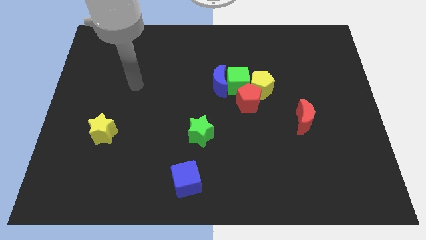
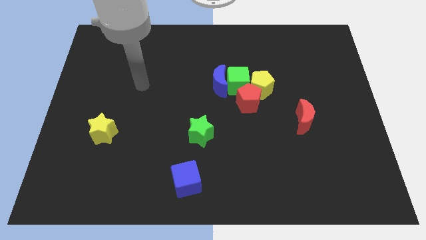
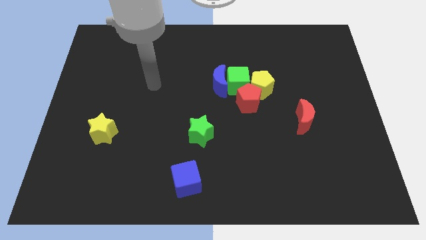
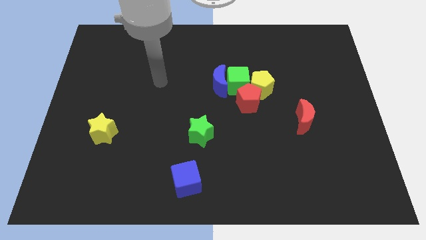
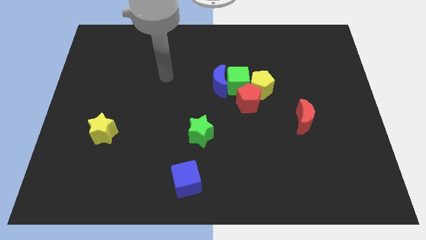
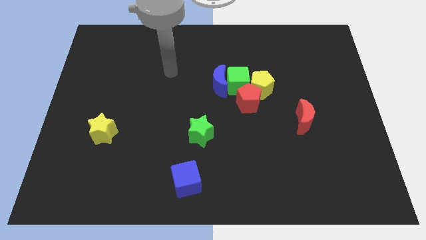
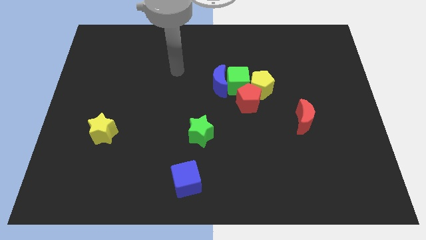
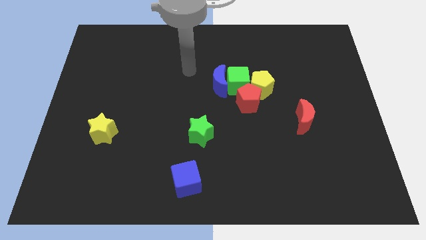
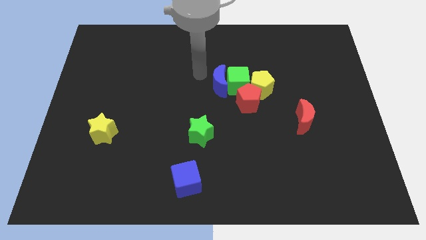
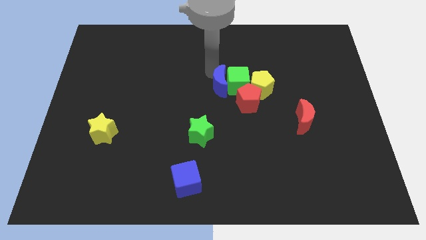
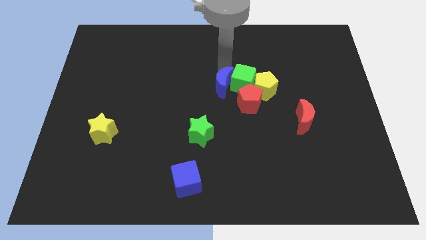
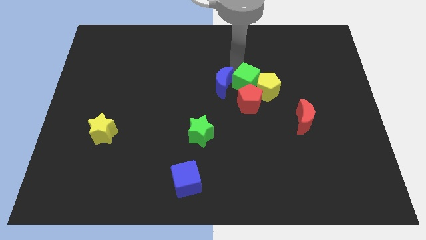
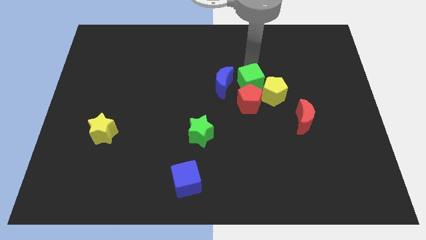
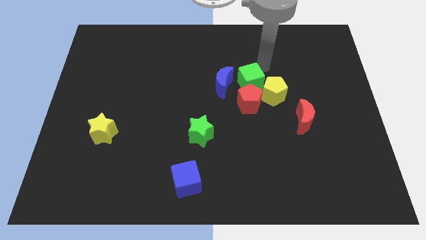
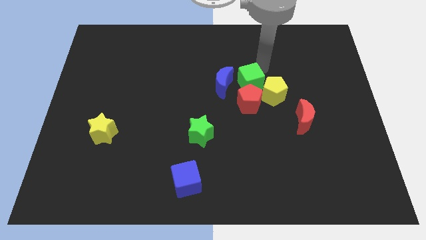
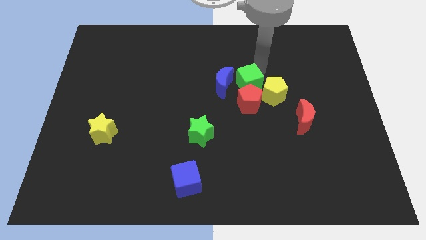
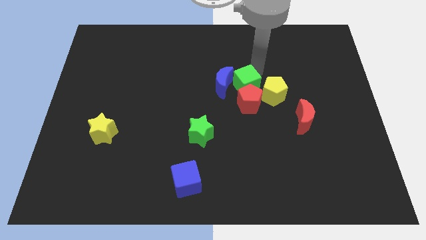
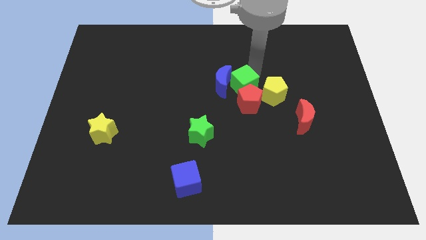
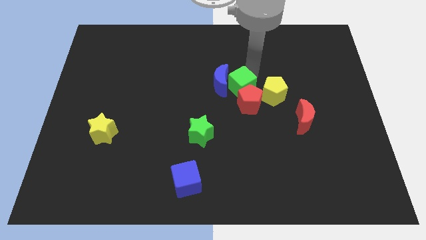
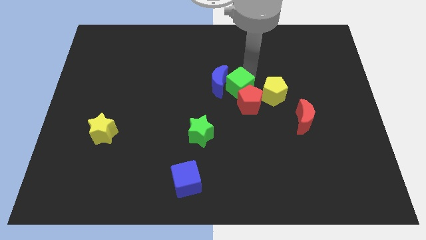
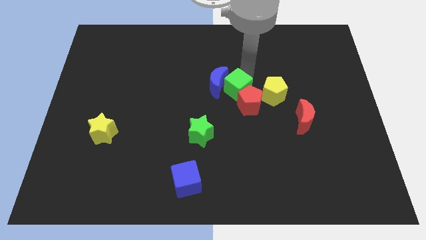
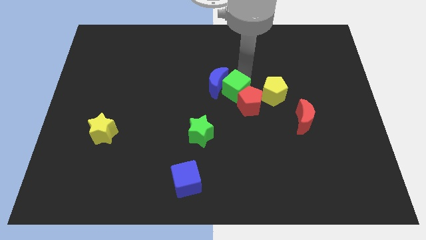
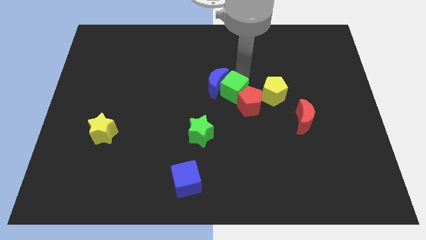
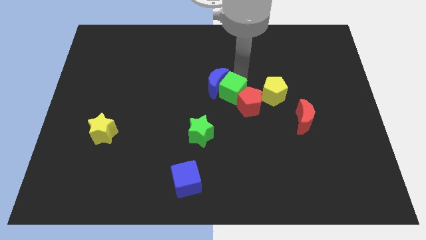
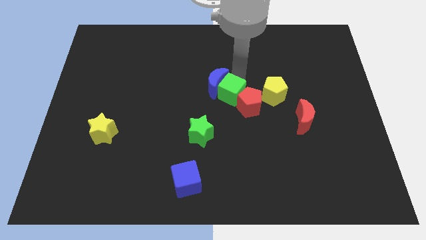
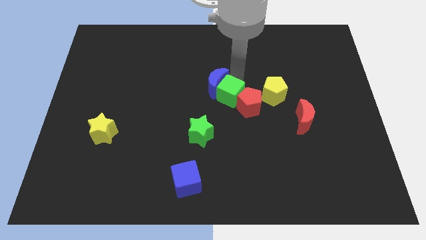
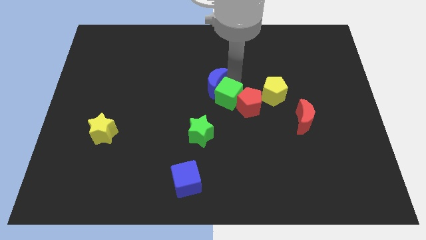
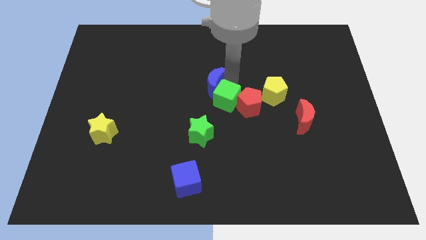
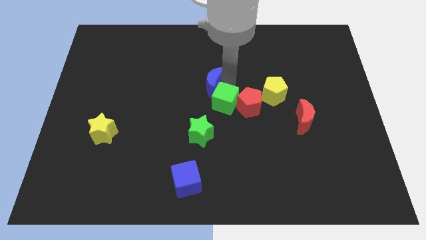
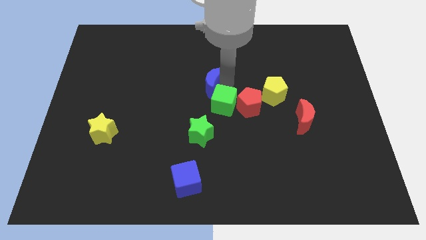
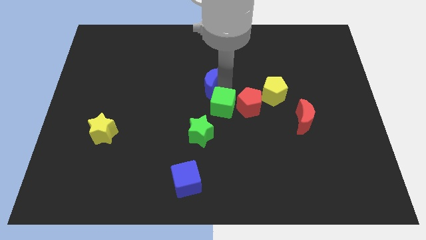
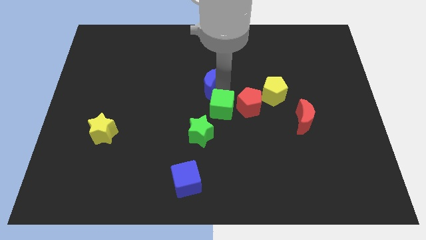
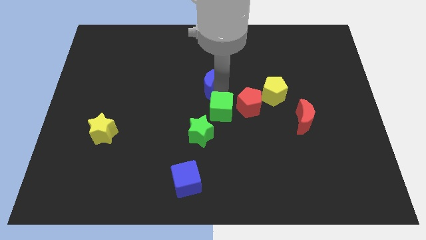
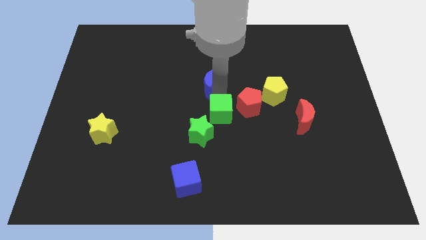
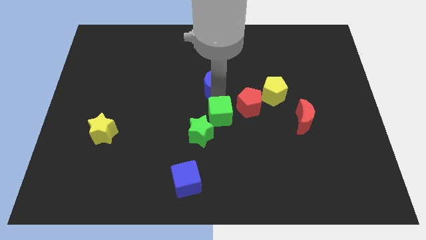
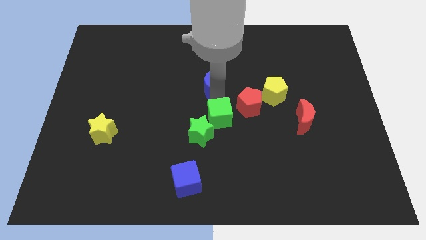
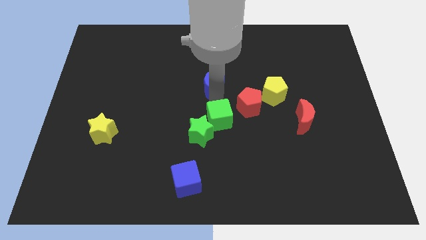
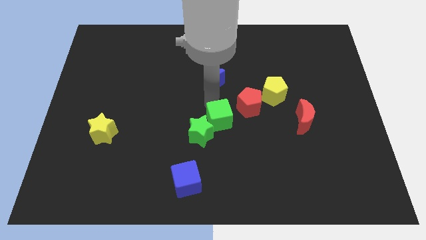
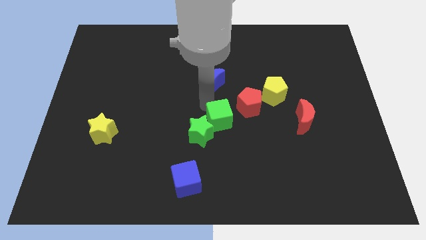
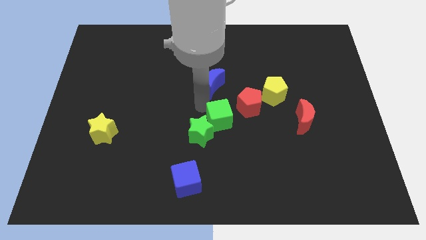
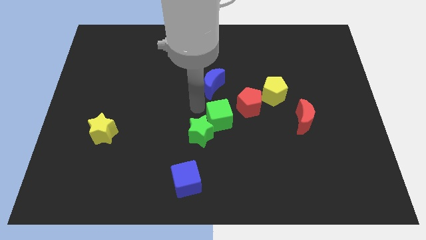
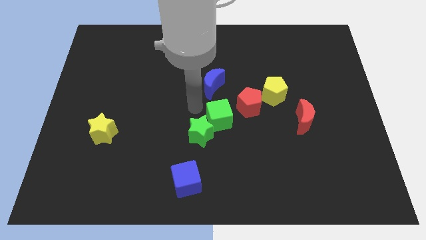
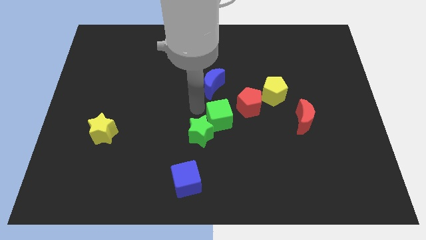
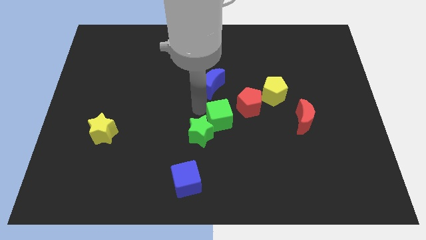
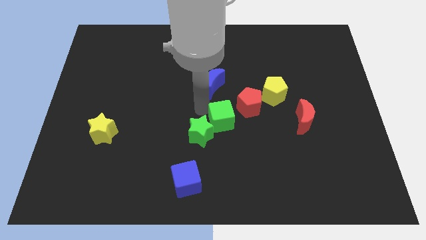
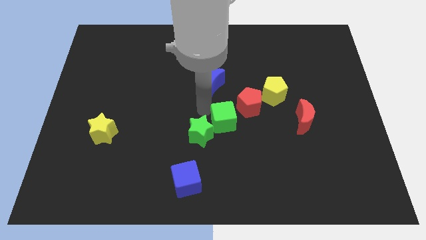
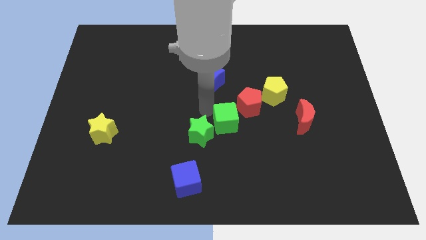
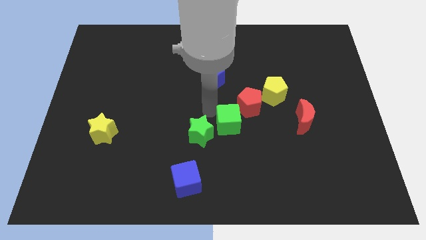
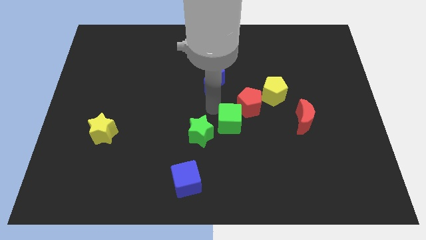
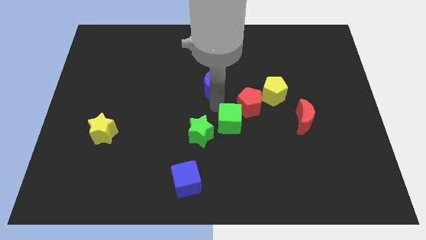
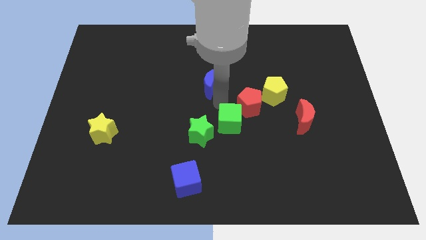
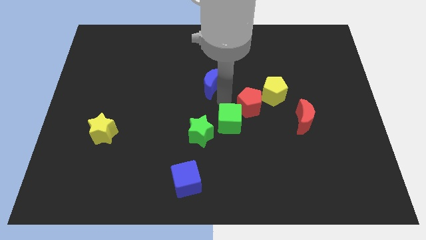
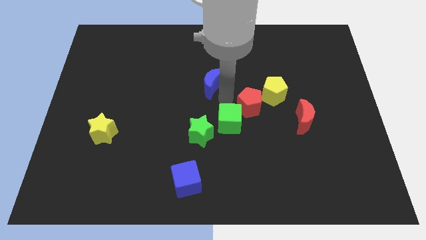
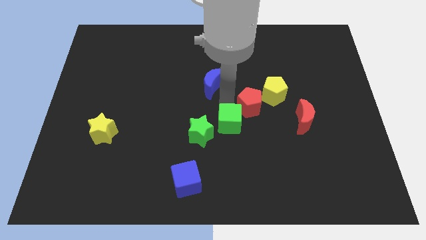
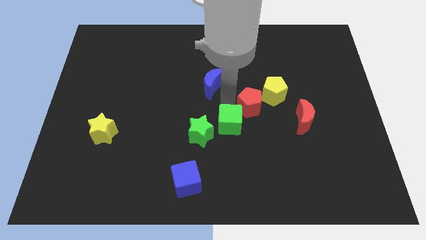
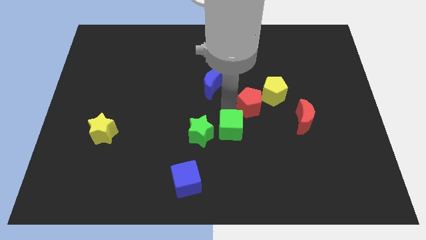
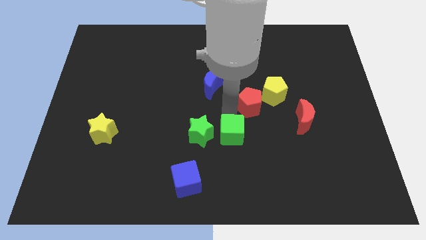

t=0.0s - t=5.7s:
push the green cube to the bottom right side of the green star

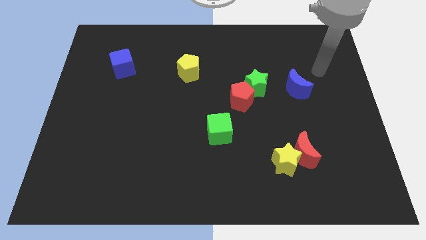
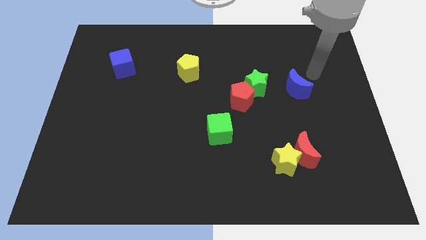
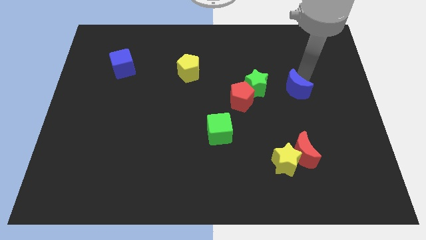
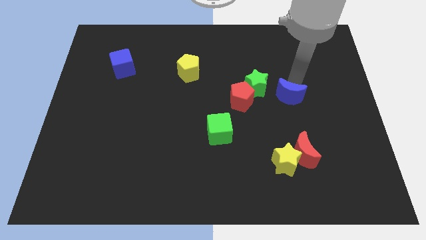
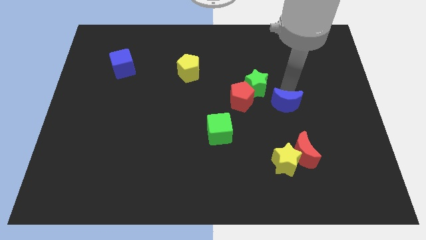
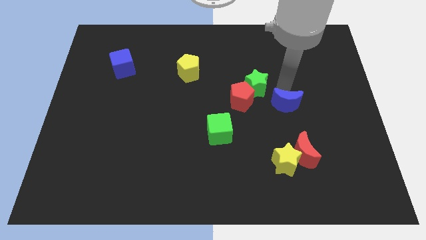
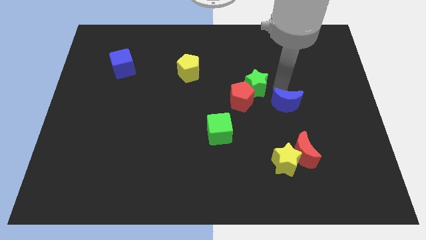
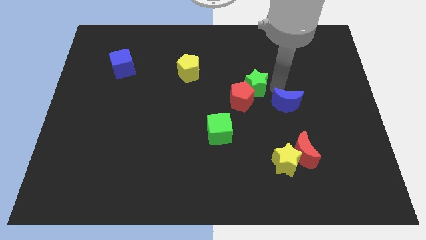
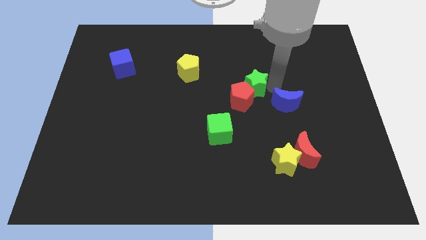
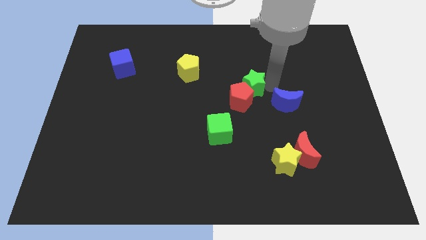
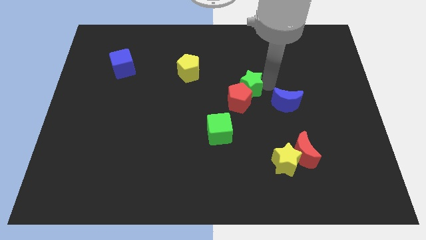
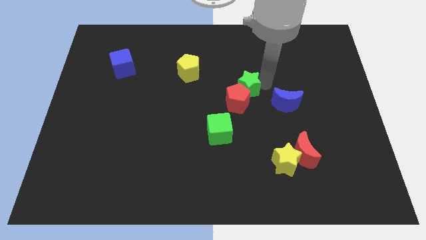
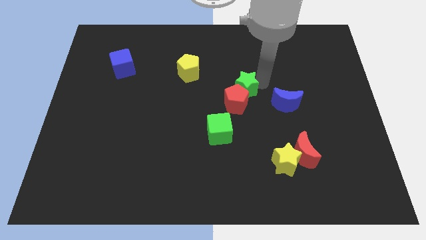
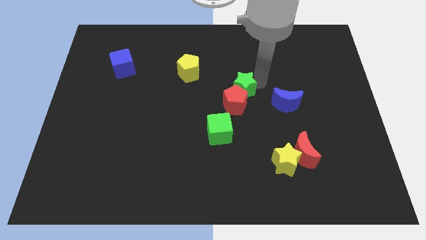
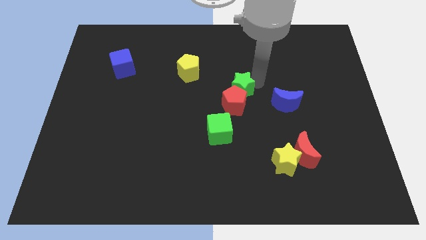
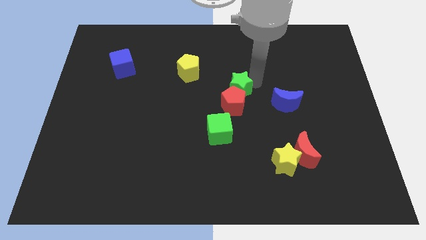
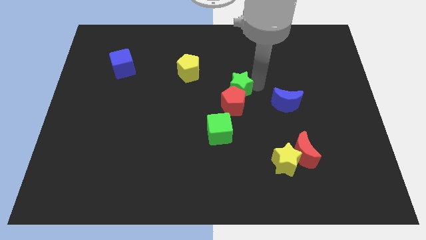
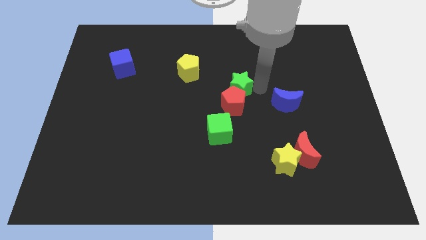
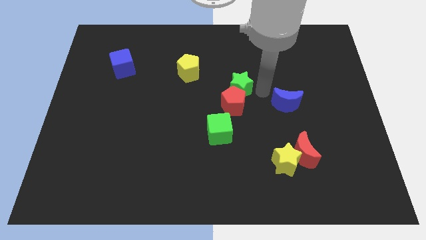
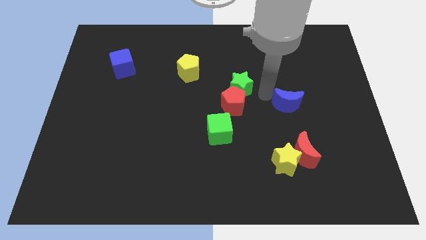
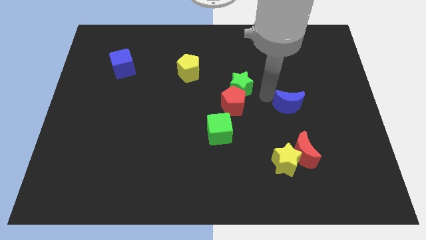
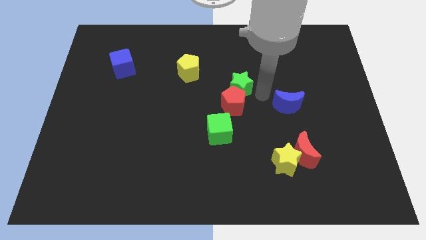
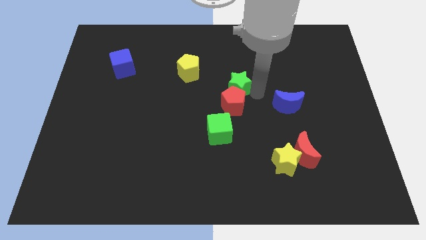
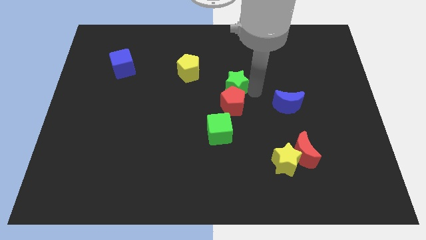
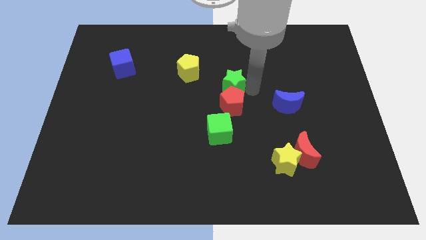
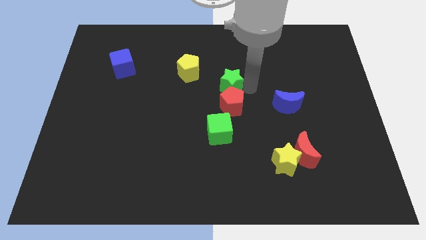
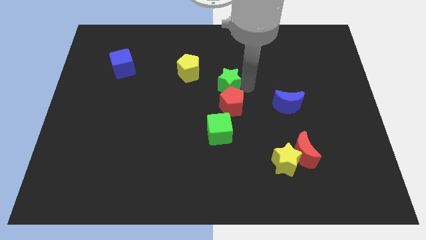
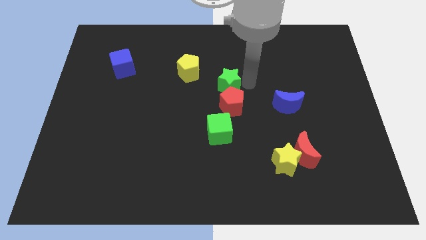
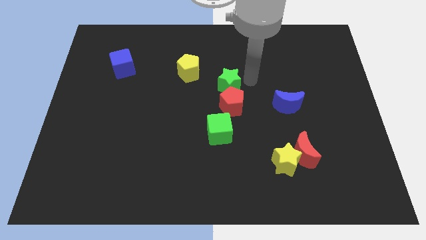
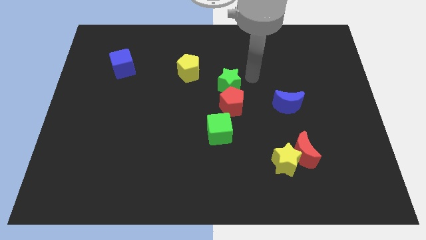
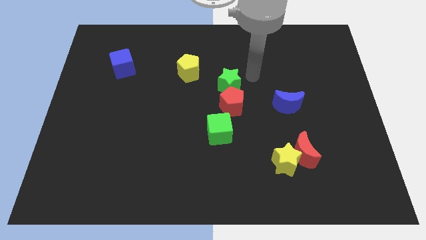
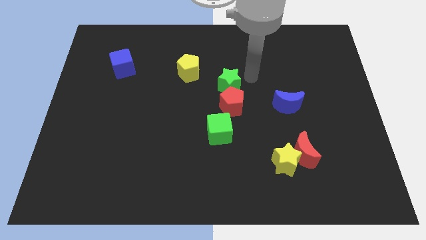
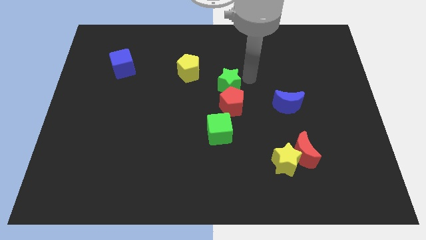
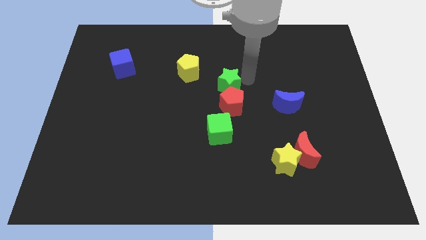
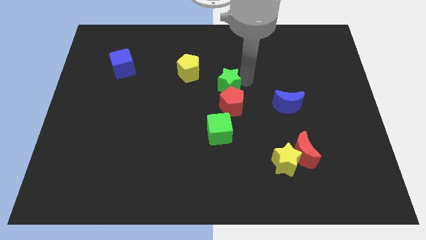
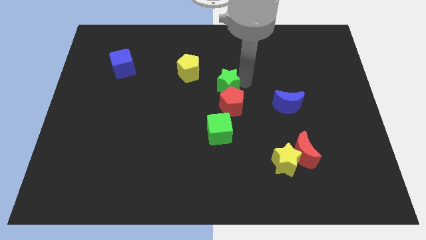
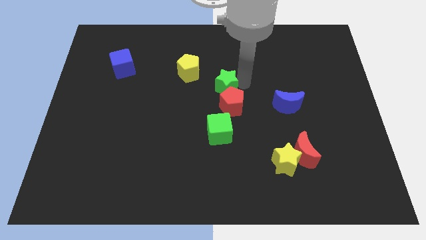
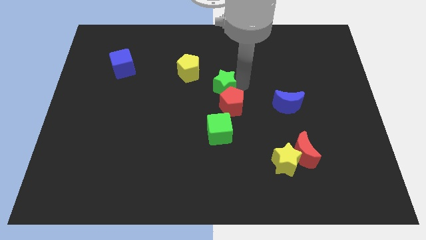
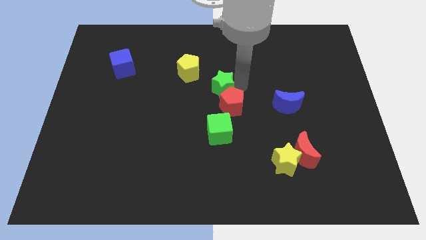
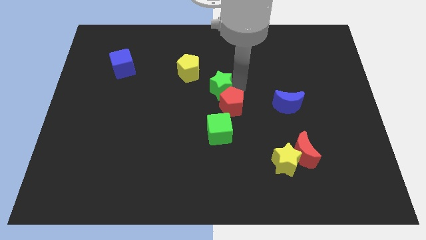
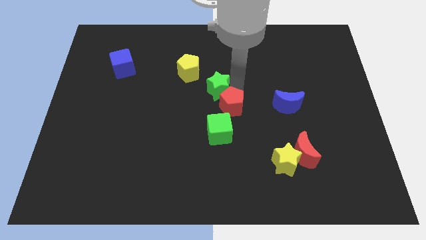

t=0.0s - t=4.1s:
put the green star just left of the red pentagon
